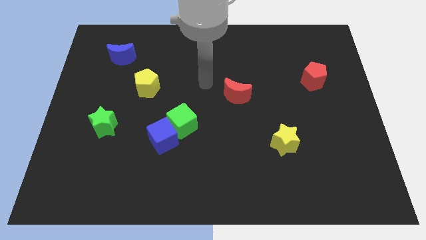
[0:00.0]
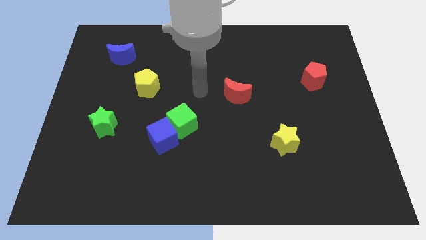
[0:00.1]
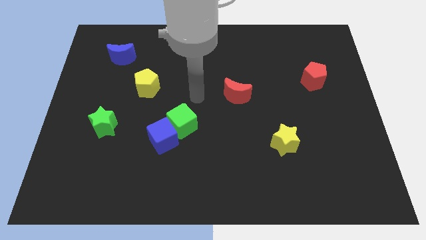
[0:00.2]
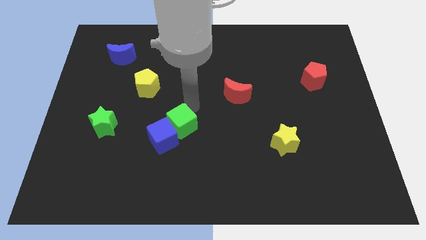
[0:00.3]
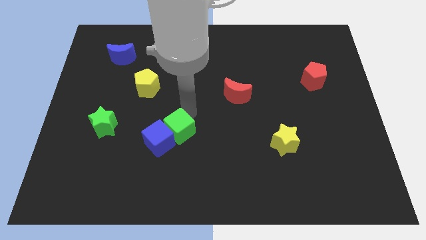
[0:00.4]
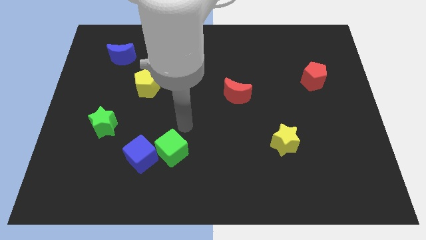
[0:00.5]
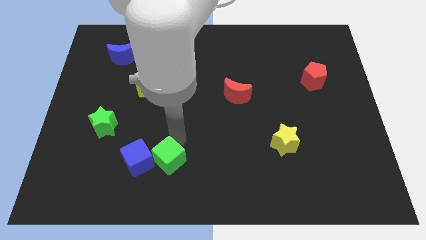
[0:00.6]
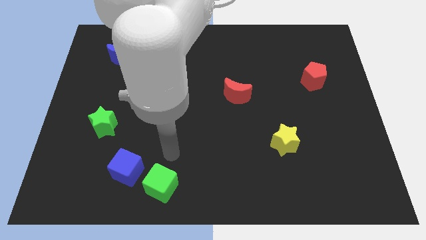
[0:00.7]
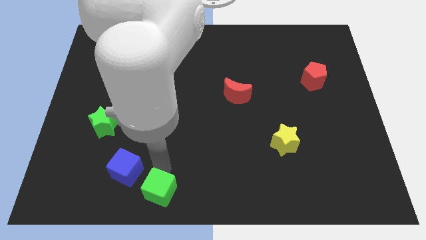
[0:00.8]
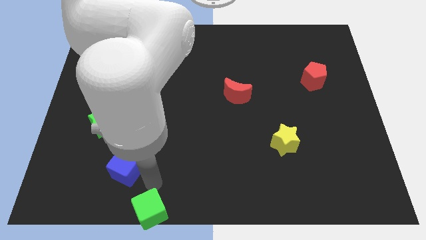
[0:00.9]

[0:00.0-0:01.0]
pull the blue cube apart from the green cube

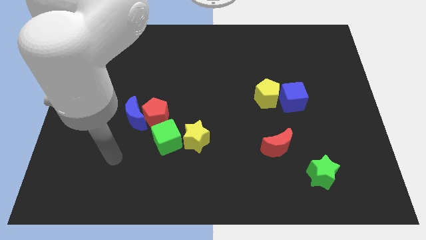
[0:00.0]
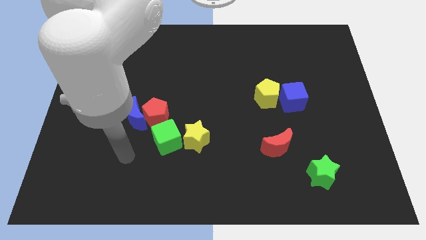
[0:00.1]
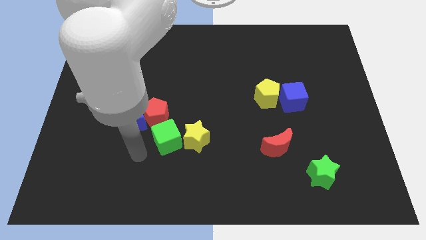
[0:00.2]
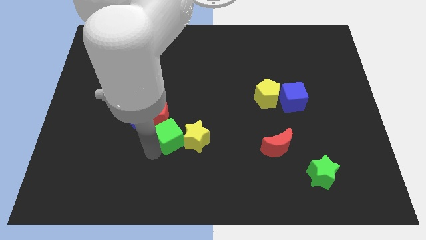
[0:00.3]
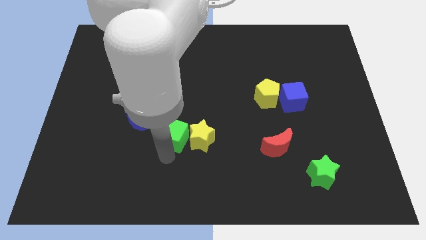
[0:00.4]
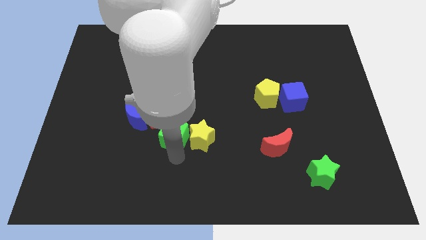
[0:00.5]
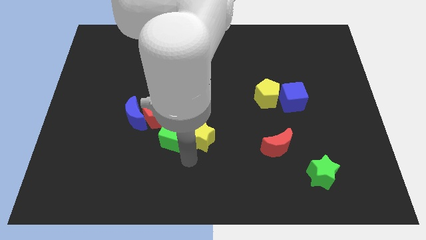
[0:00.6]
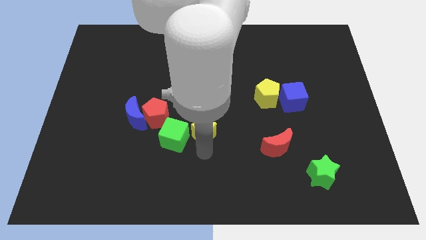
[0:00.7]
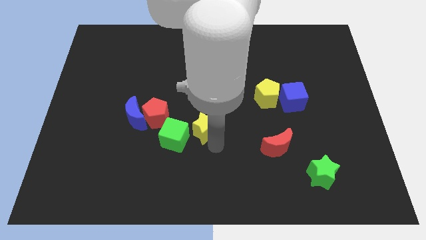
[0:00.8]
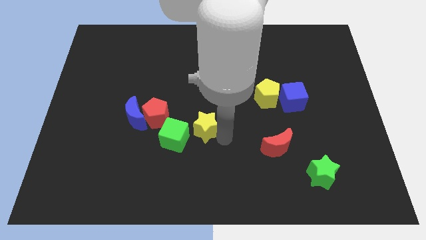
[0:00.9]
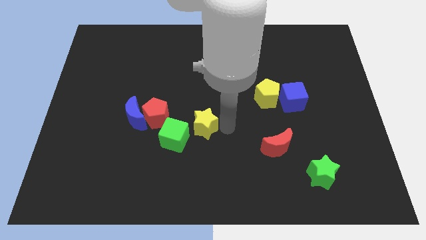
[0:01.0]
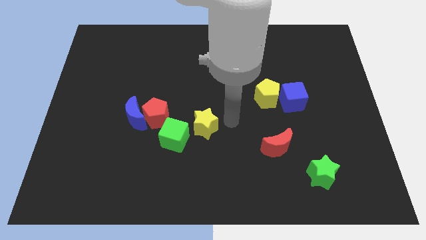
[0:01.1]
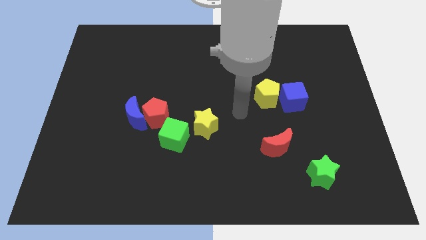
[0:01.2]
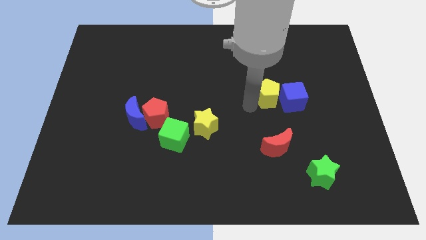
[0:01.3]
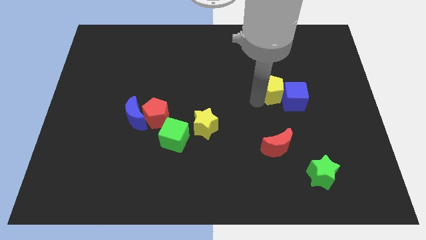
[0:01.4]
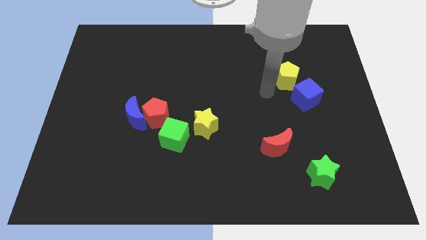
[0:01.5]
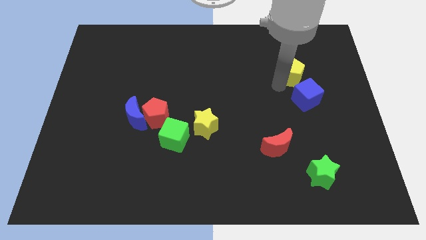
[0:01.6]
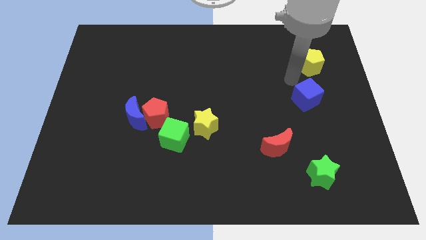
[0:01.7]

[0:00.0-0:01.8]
pull the blue cube apart from the yellow pentagon

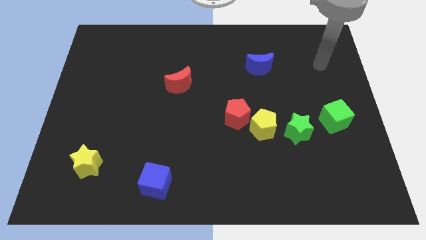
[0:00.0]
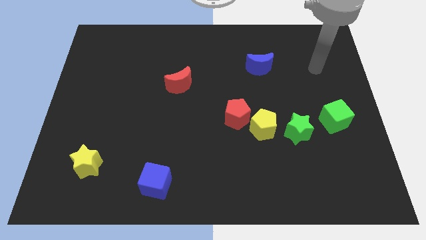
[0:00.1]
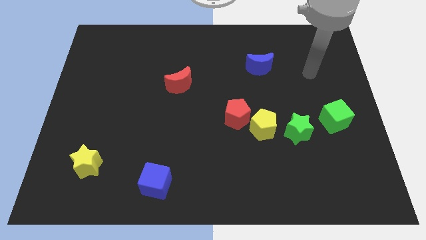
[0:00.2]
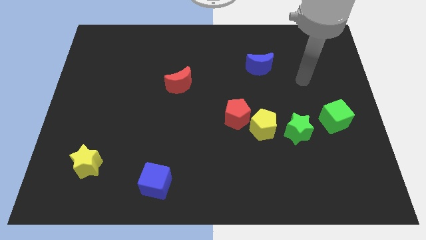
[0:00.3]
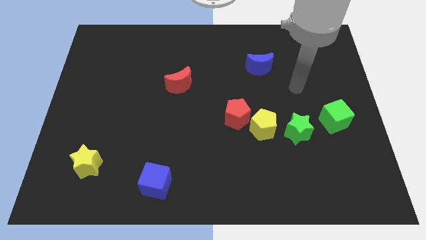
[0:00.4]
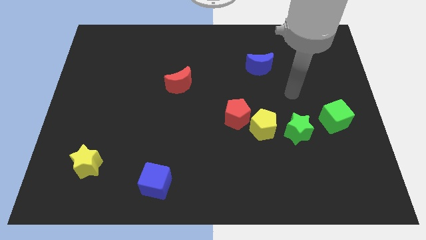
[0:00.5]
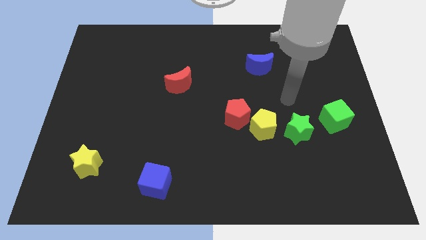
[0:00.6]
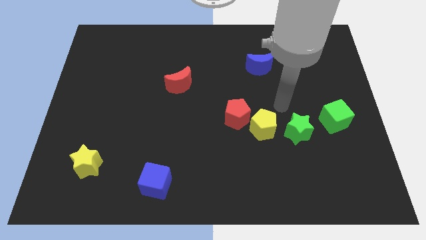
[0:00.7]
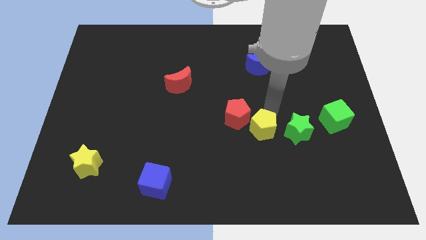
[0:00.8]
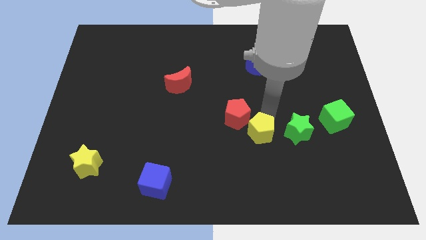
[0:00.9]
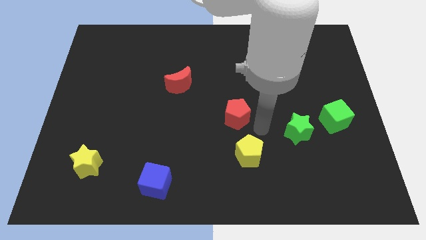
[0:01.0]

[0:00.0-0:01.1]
move the red pentagon away from the yellow pentagon

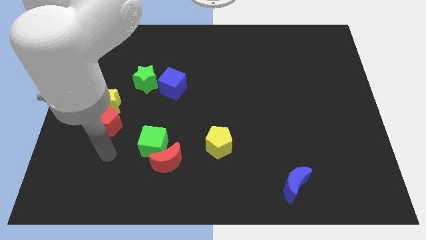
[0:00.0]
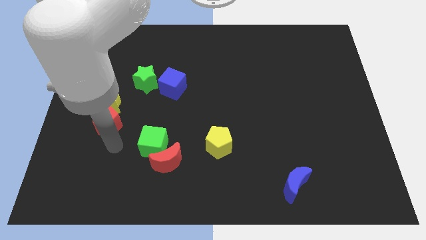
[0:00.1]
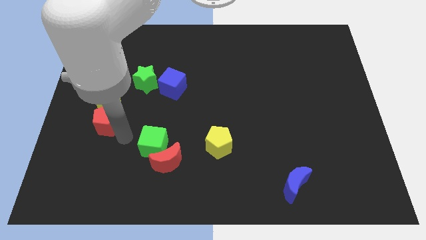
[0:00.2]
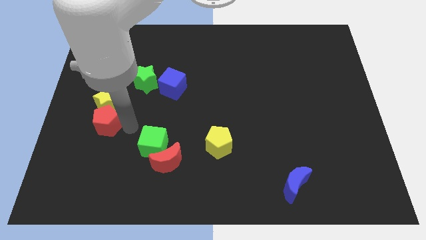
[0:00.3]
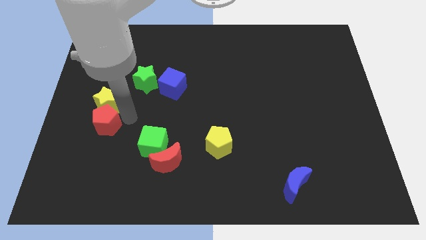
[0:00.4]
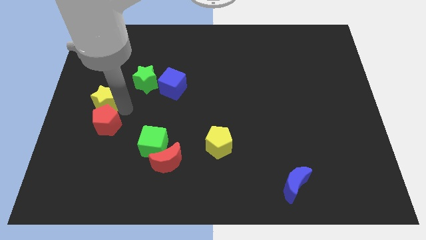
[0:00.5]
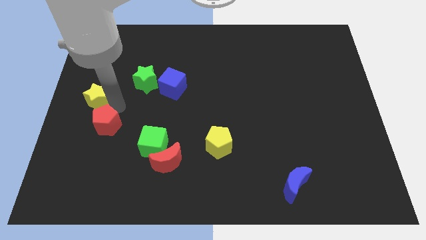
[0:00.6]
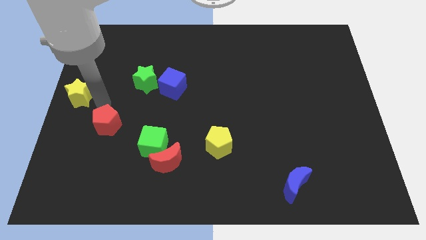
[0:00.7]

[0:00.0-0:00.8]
move the red pentagon away from the yellow star

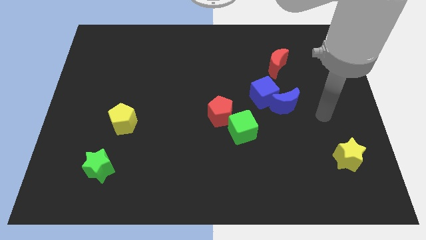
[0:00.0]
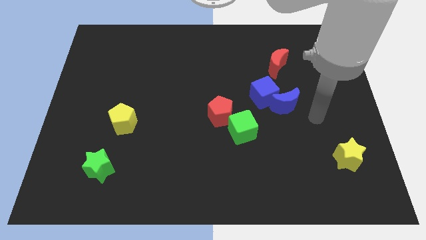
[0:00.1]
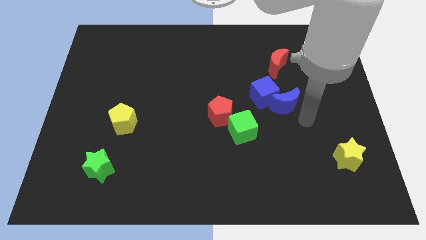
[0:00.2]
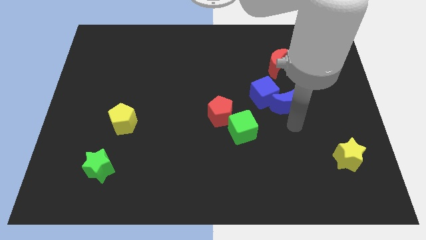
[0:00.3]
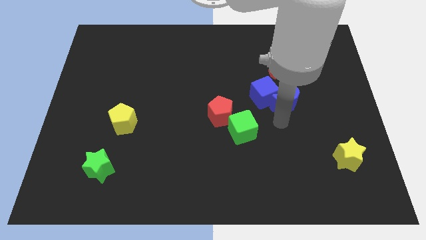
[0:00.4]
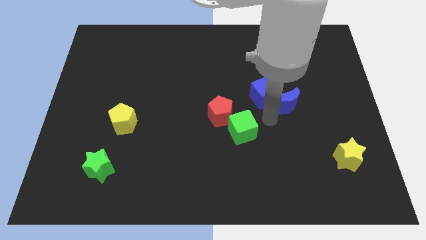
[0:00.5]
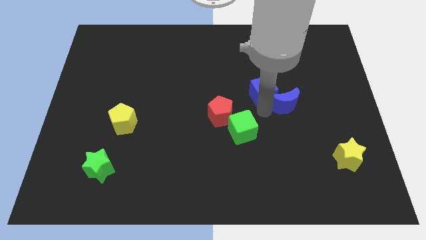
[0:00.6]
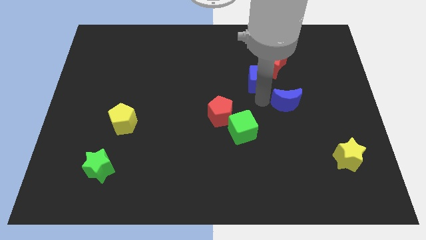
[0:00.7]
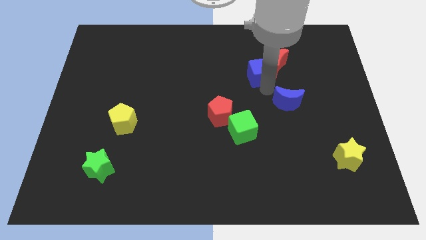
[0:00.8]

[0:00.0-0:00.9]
move the blue moon away from the blue cube

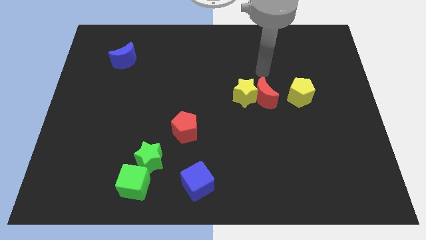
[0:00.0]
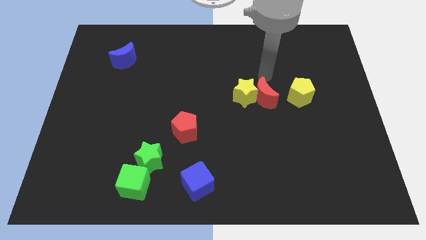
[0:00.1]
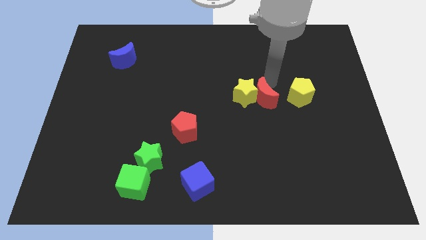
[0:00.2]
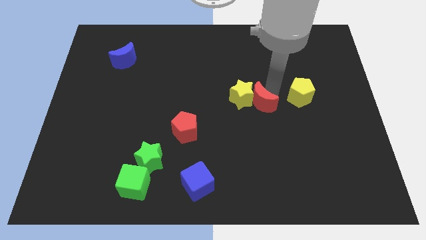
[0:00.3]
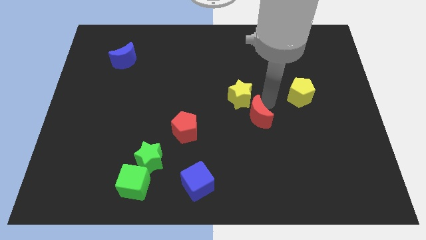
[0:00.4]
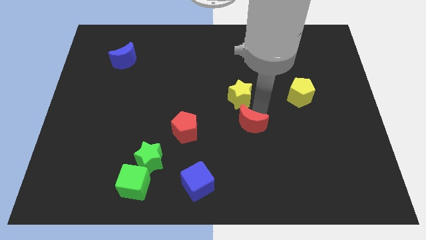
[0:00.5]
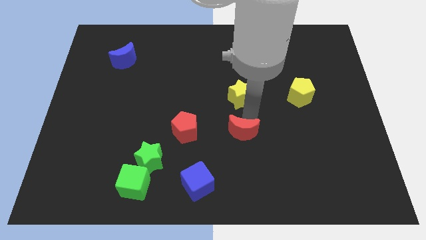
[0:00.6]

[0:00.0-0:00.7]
move the yellow star away from the red moon

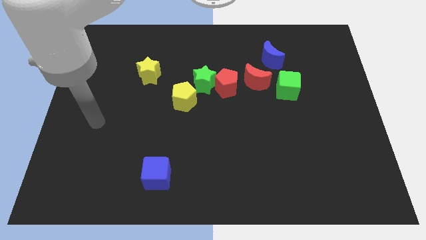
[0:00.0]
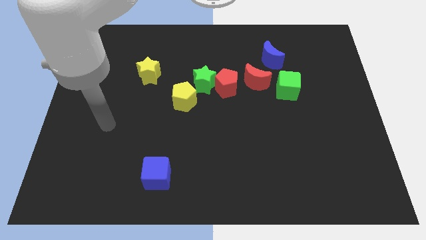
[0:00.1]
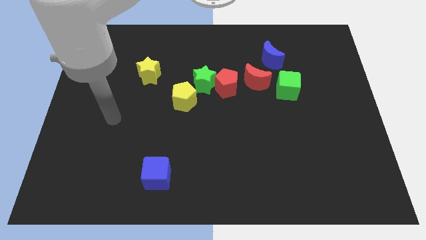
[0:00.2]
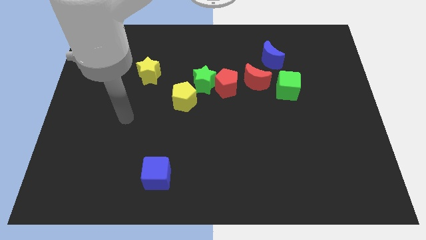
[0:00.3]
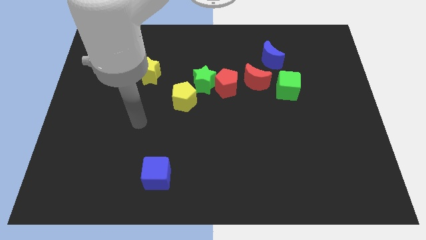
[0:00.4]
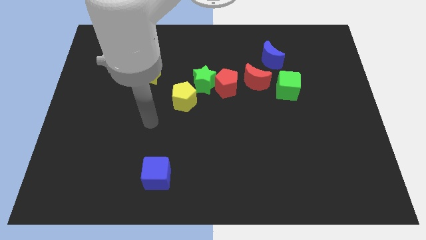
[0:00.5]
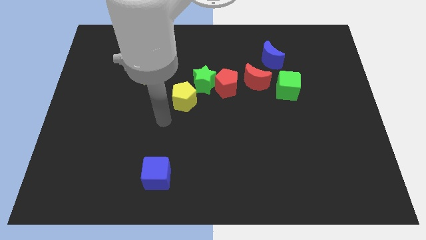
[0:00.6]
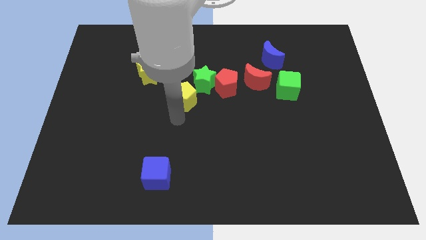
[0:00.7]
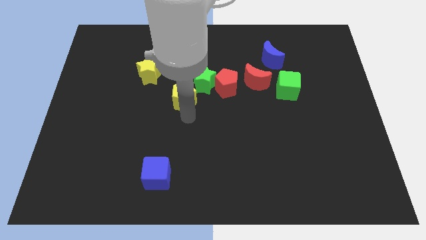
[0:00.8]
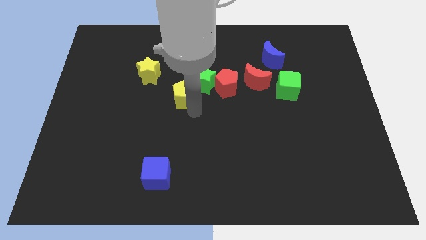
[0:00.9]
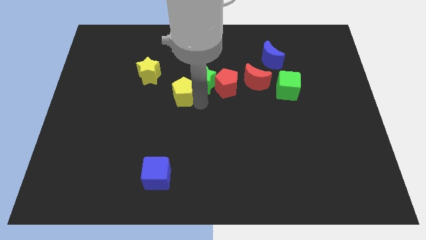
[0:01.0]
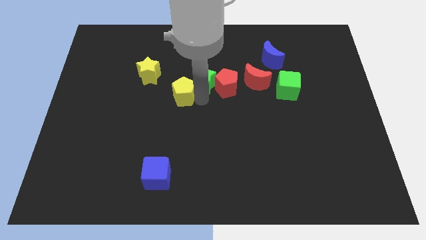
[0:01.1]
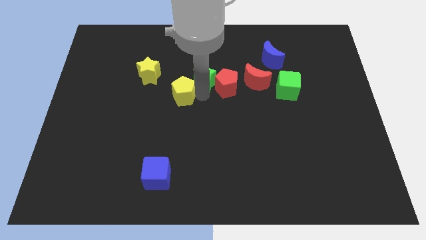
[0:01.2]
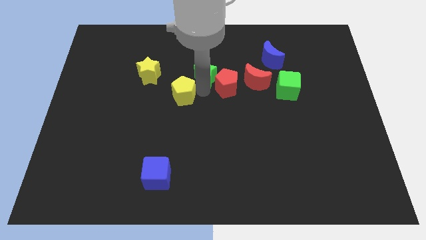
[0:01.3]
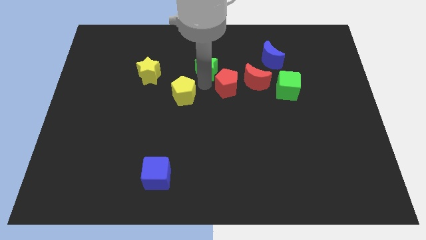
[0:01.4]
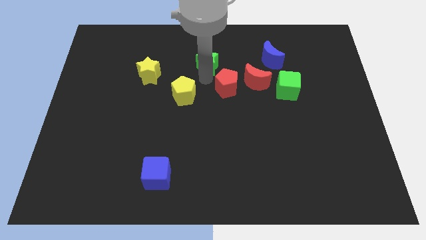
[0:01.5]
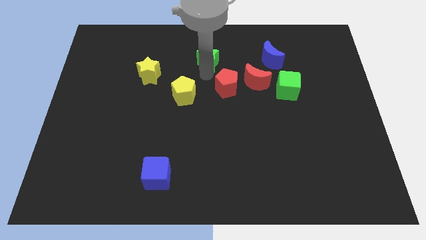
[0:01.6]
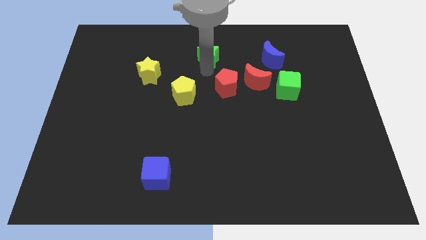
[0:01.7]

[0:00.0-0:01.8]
separate the green star from the red pentagon and yellow pentagon

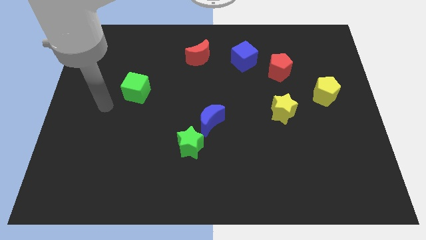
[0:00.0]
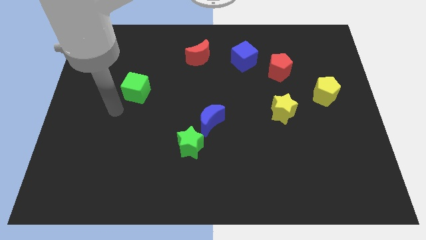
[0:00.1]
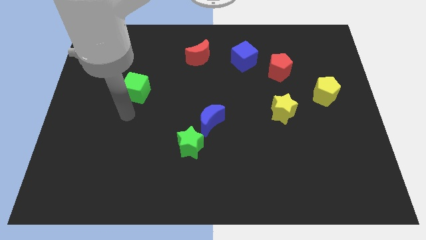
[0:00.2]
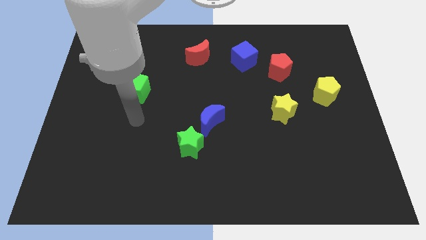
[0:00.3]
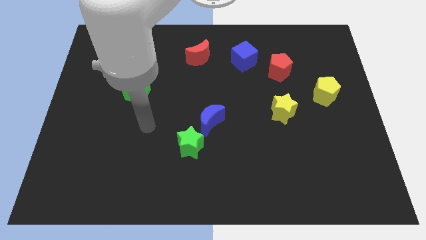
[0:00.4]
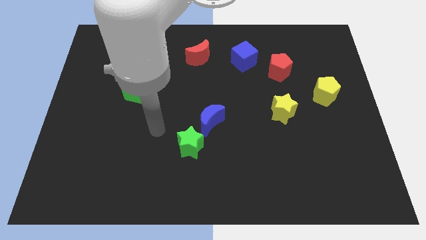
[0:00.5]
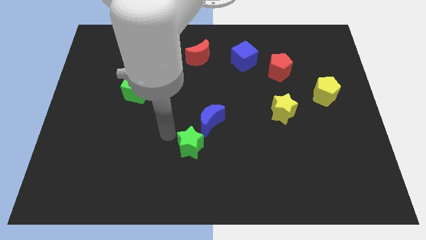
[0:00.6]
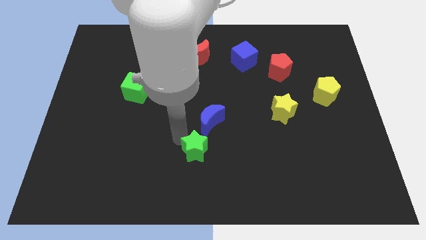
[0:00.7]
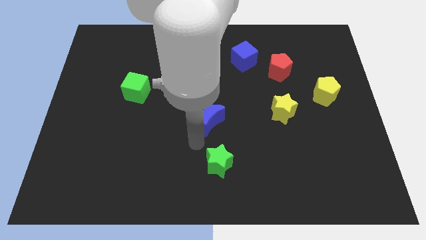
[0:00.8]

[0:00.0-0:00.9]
separate the blue moon from the green star

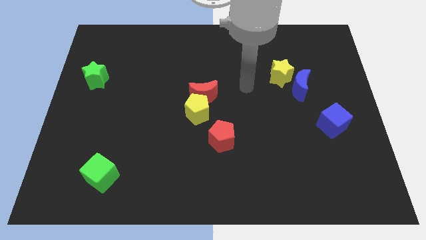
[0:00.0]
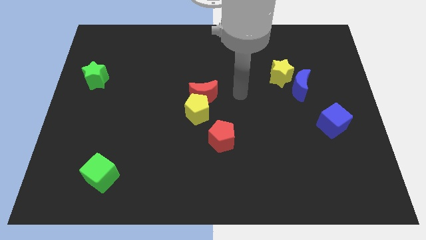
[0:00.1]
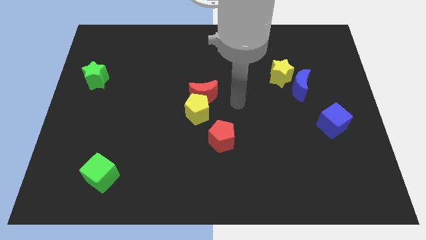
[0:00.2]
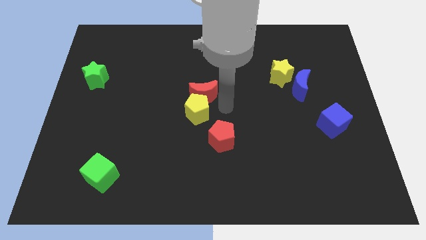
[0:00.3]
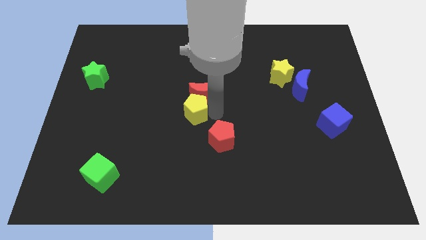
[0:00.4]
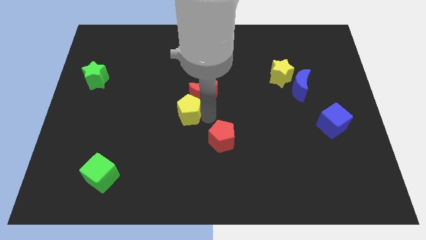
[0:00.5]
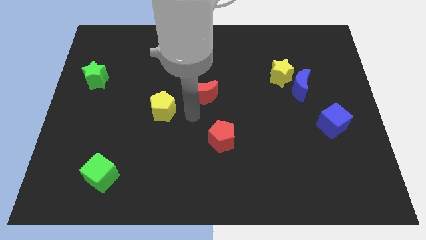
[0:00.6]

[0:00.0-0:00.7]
separate the red moon from the yellow pentagon
